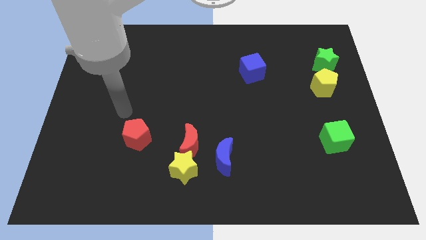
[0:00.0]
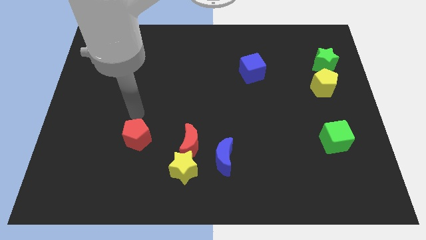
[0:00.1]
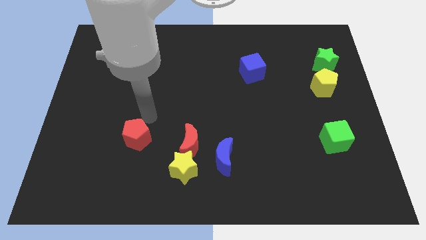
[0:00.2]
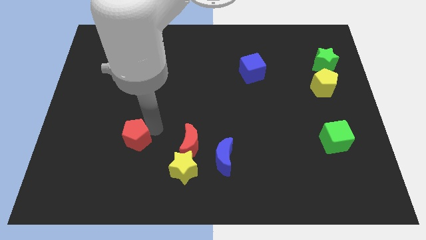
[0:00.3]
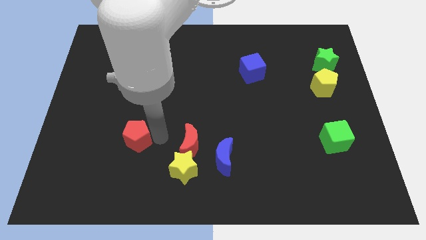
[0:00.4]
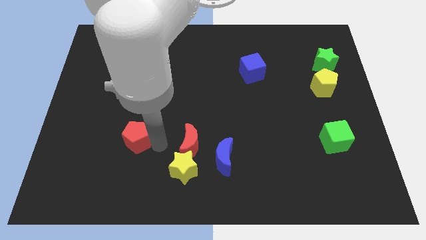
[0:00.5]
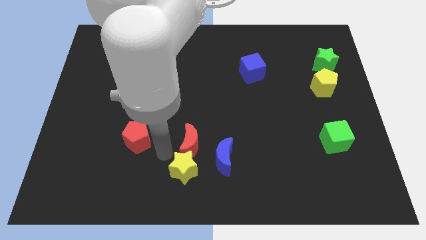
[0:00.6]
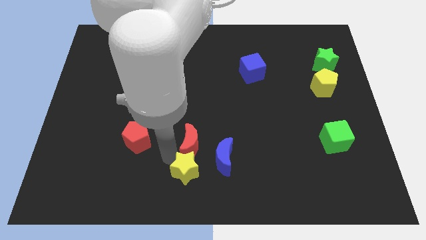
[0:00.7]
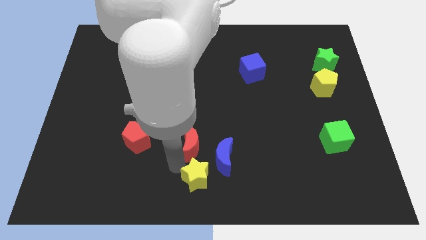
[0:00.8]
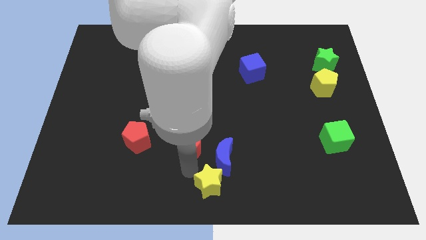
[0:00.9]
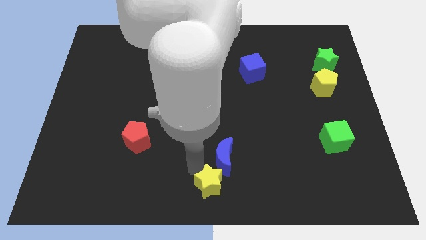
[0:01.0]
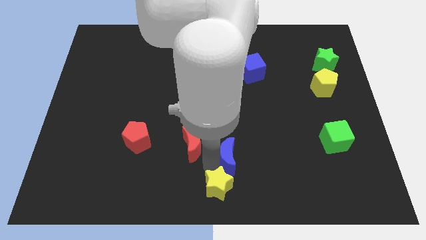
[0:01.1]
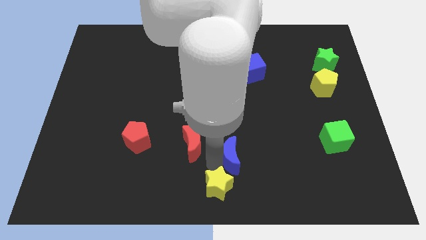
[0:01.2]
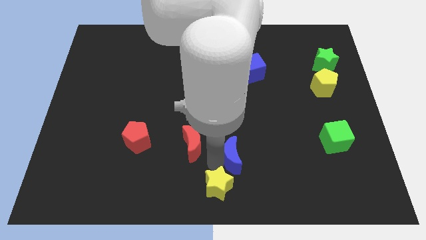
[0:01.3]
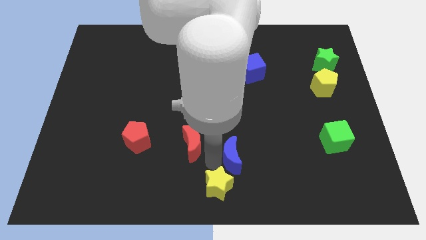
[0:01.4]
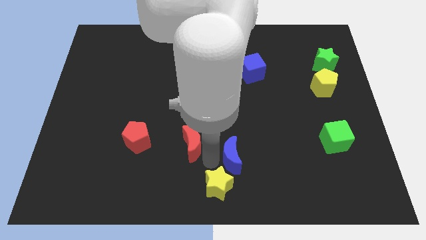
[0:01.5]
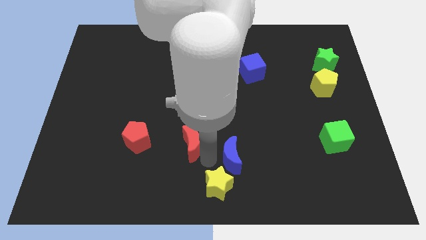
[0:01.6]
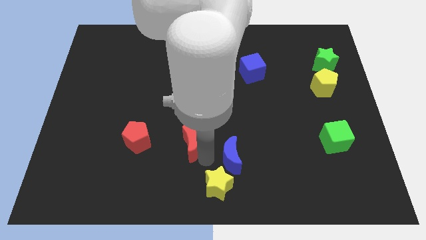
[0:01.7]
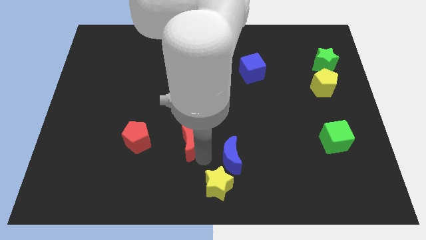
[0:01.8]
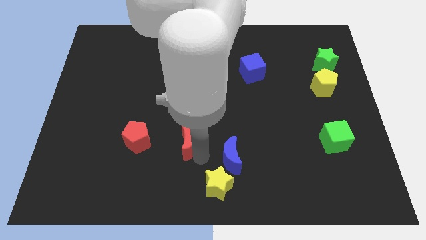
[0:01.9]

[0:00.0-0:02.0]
separate the red moon from the yellow star and blue moon

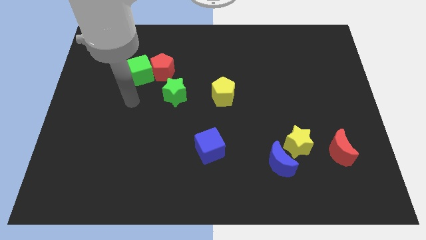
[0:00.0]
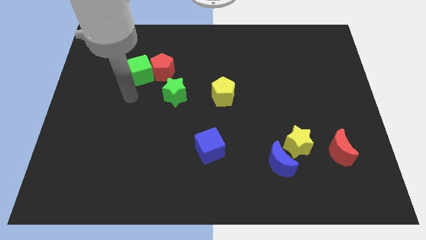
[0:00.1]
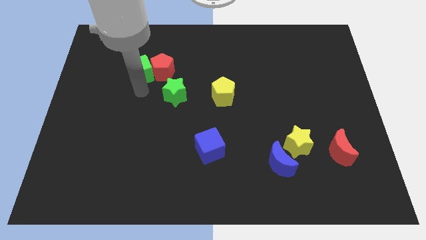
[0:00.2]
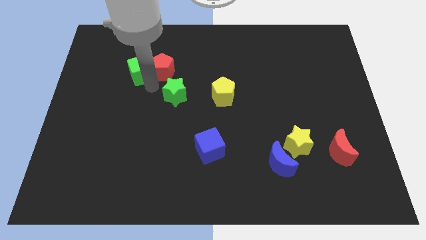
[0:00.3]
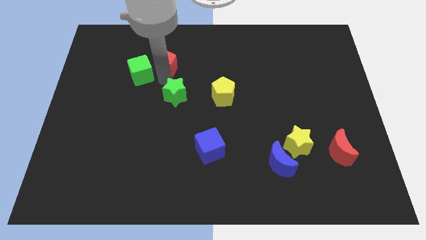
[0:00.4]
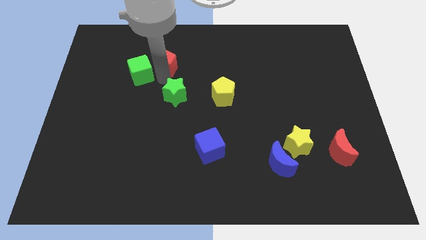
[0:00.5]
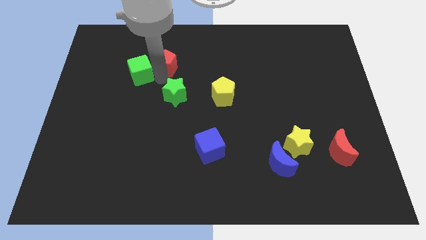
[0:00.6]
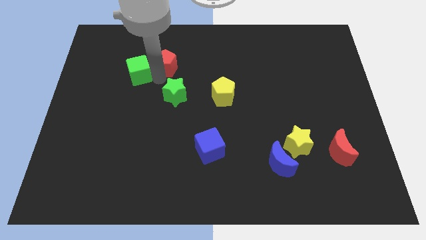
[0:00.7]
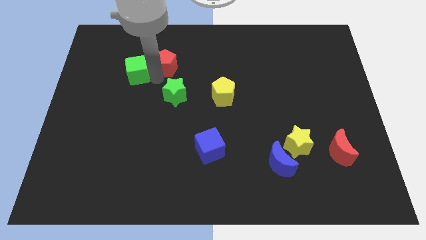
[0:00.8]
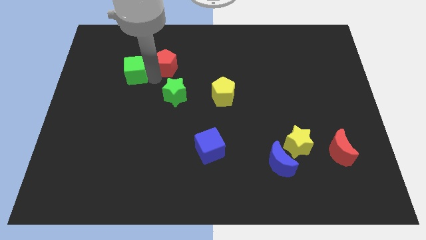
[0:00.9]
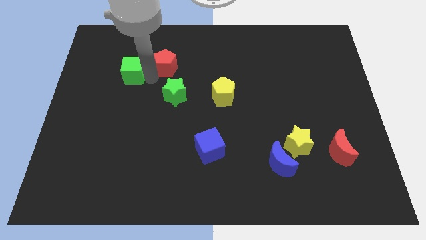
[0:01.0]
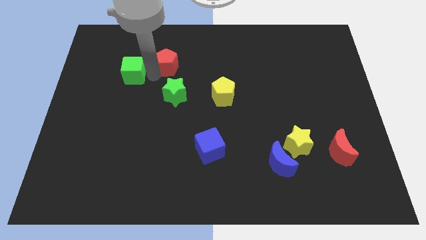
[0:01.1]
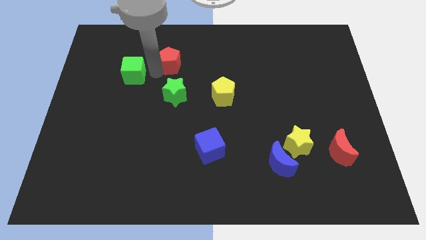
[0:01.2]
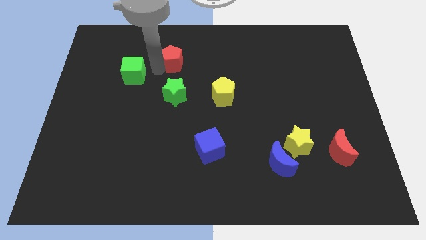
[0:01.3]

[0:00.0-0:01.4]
pull the green cube apart from the red pentagon

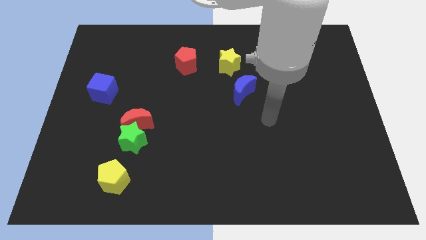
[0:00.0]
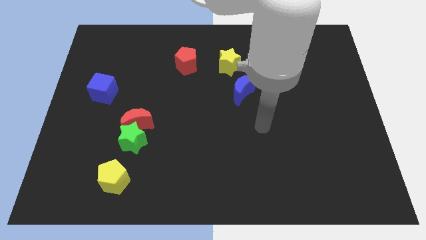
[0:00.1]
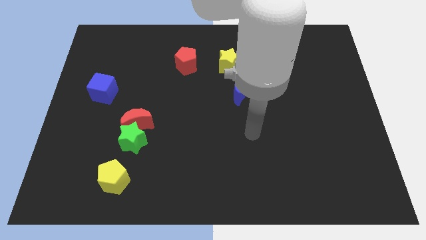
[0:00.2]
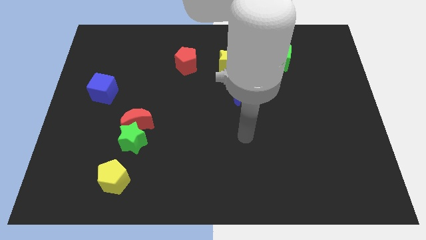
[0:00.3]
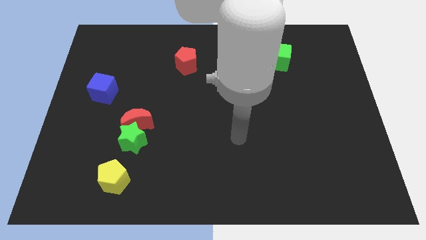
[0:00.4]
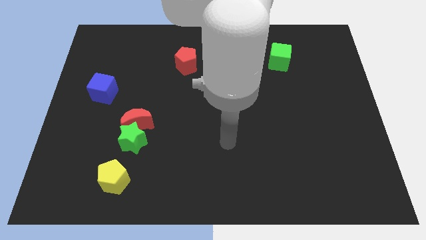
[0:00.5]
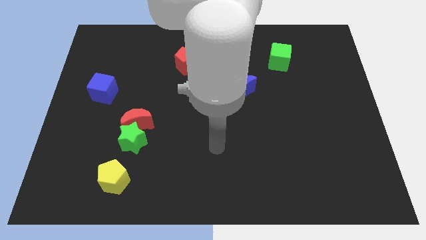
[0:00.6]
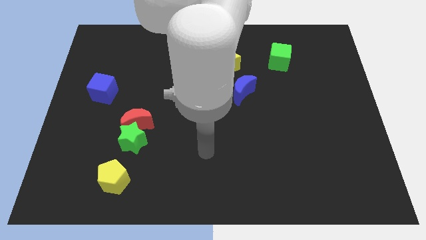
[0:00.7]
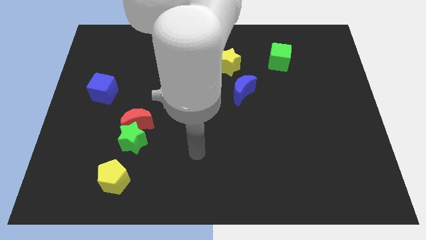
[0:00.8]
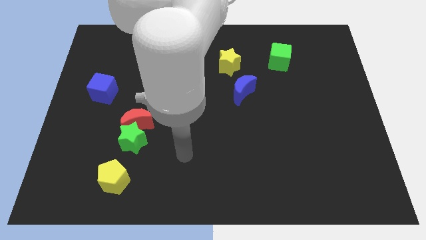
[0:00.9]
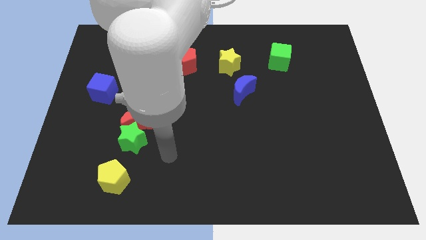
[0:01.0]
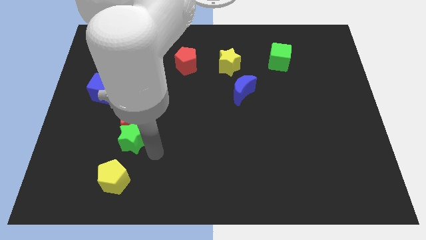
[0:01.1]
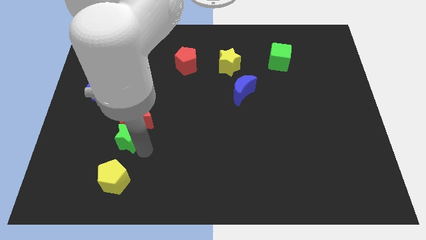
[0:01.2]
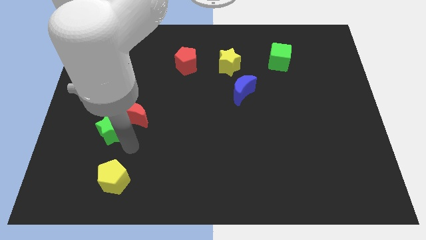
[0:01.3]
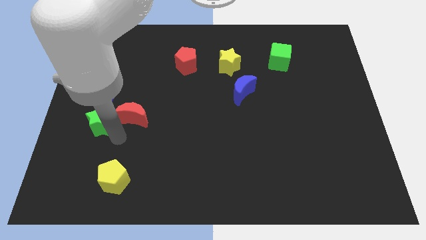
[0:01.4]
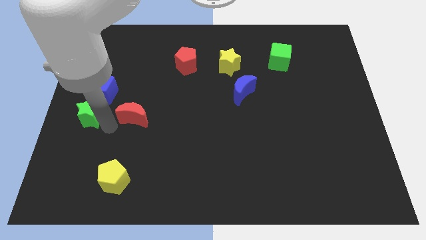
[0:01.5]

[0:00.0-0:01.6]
move the red moon away from the green star

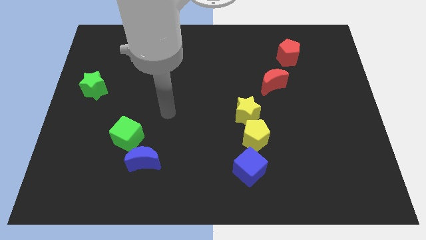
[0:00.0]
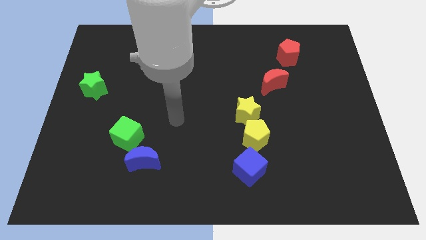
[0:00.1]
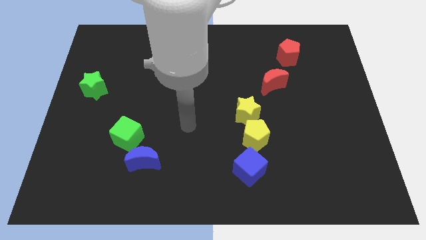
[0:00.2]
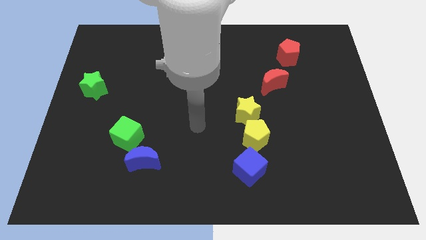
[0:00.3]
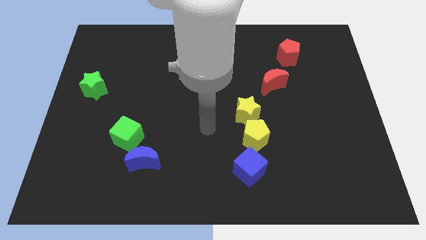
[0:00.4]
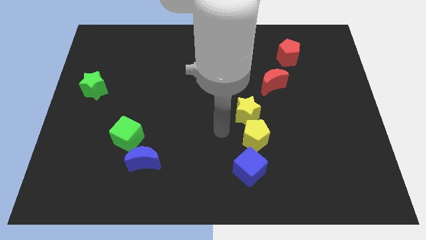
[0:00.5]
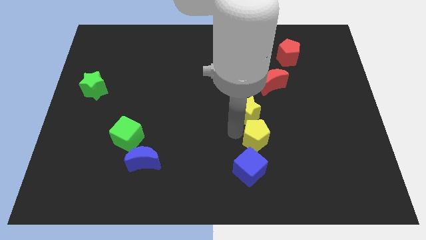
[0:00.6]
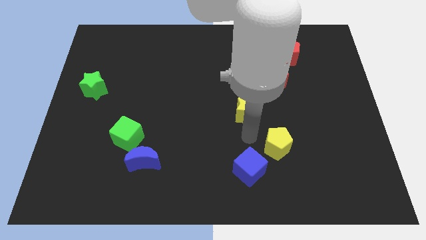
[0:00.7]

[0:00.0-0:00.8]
move the yellow star away from the yellow pentagon

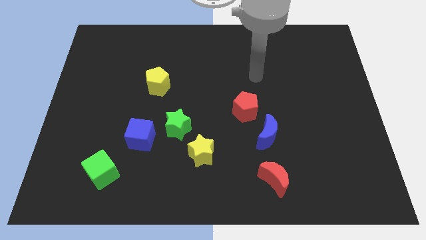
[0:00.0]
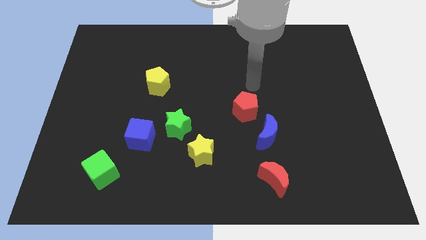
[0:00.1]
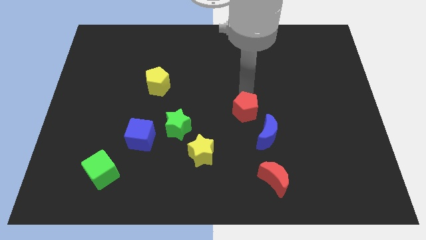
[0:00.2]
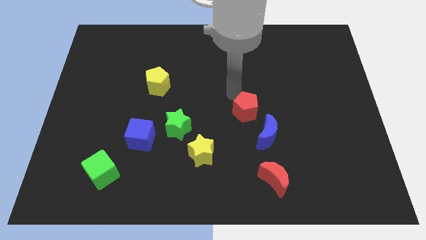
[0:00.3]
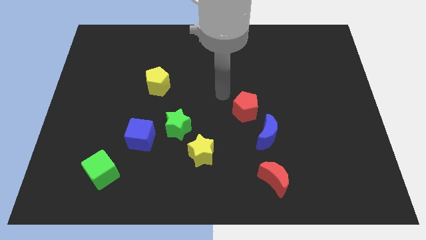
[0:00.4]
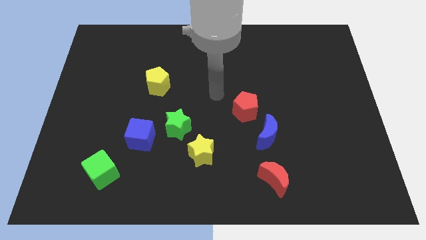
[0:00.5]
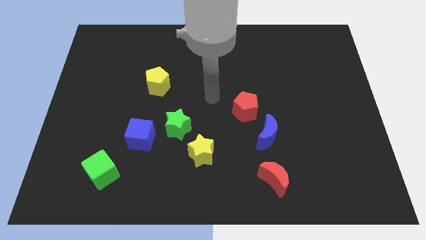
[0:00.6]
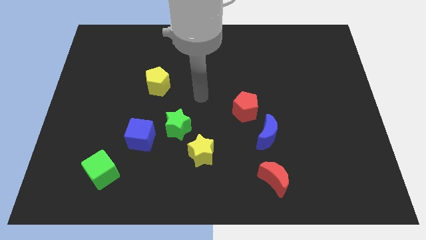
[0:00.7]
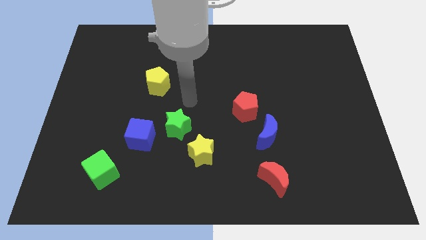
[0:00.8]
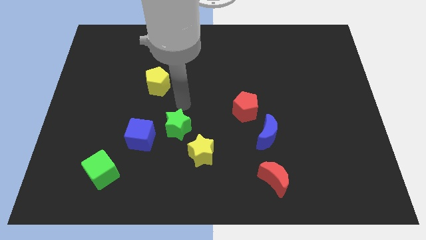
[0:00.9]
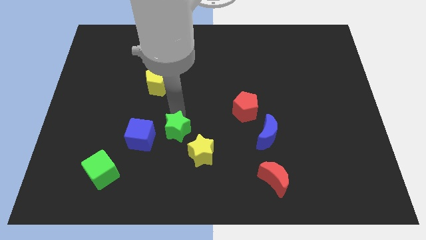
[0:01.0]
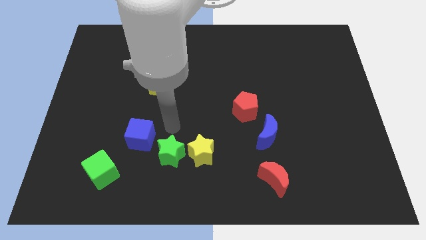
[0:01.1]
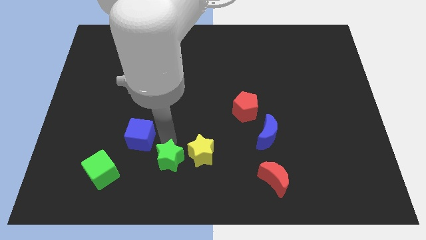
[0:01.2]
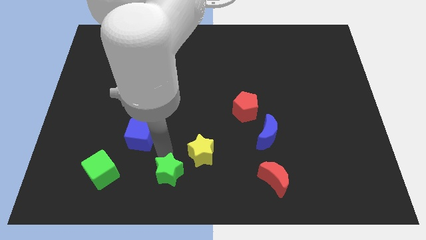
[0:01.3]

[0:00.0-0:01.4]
move the blue cube away from the green star

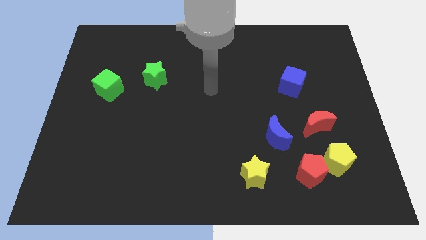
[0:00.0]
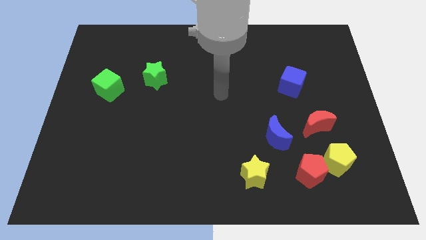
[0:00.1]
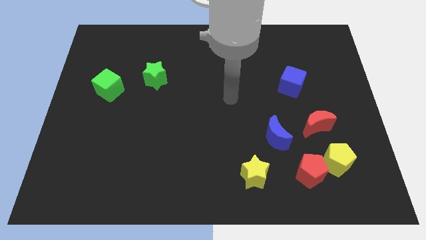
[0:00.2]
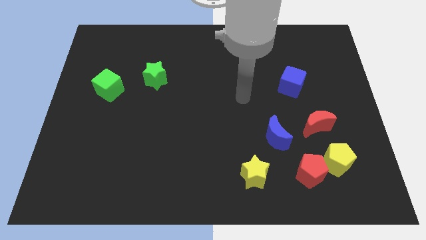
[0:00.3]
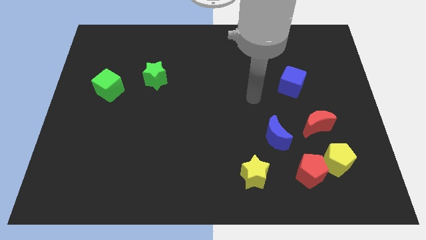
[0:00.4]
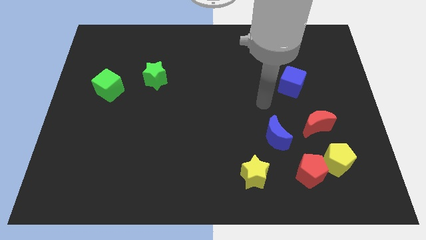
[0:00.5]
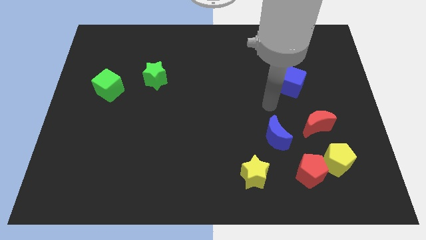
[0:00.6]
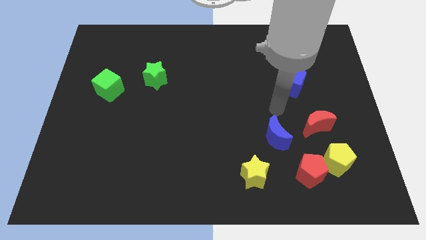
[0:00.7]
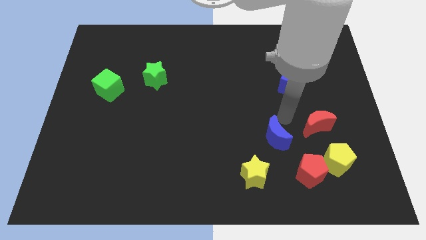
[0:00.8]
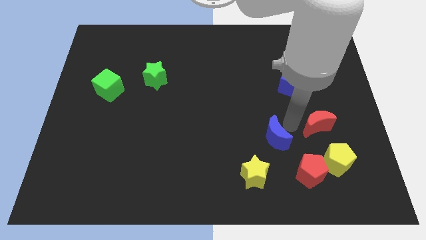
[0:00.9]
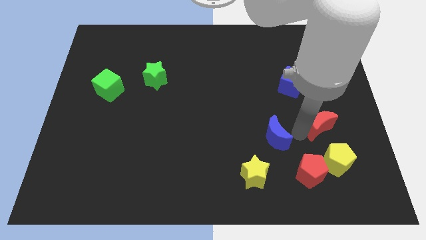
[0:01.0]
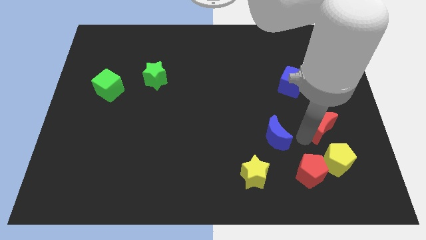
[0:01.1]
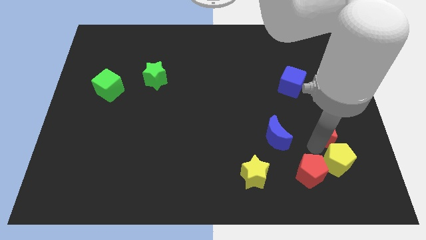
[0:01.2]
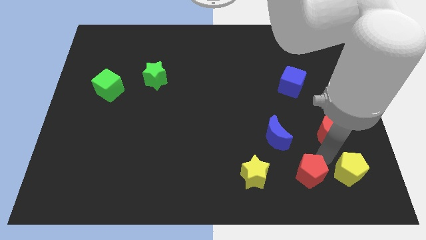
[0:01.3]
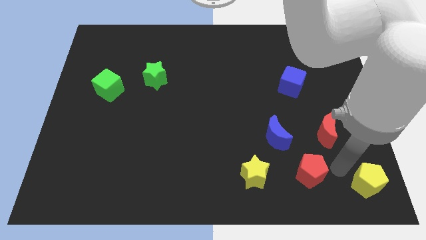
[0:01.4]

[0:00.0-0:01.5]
separate the red pentagon from the yellow pentagon

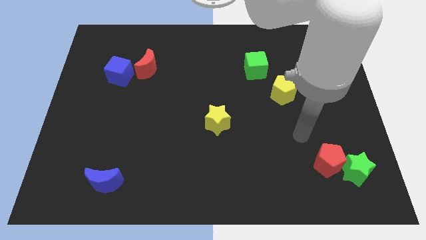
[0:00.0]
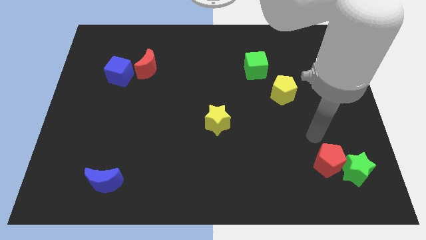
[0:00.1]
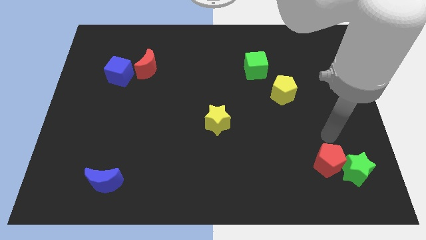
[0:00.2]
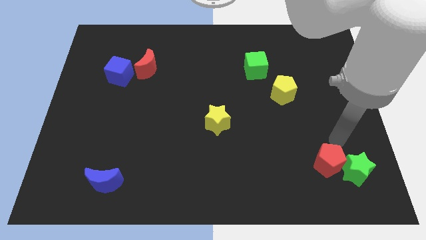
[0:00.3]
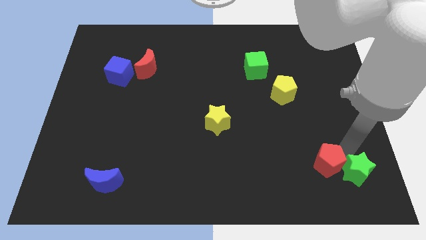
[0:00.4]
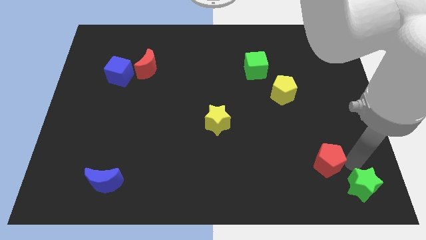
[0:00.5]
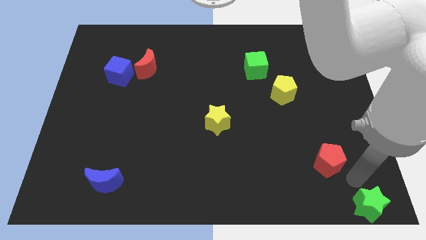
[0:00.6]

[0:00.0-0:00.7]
pull the red pentagon apart from the green star
